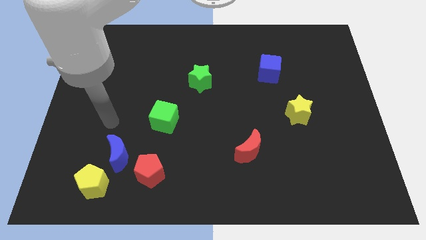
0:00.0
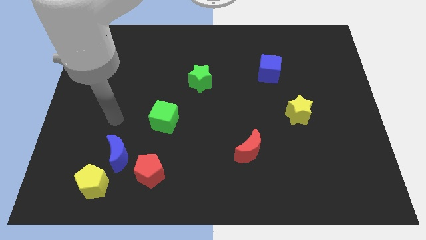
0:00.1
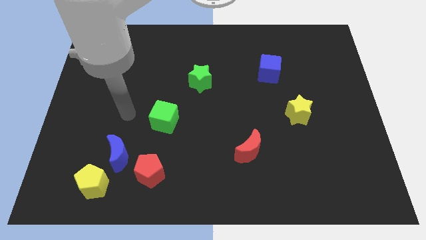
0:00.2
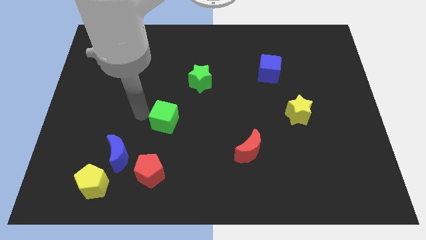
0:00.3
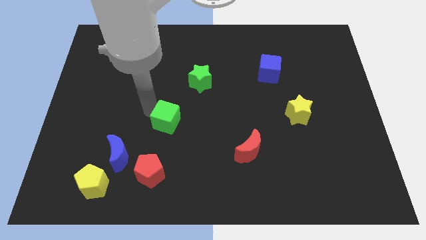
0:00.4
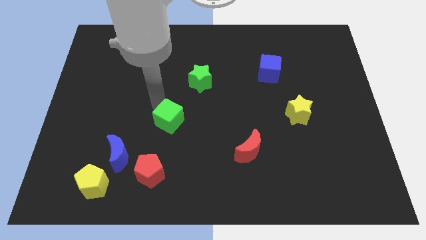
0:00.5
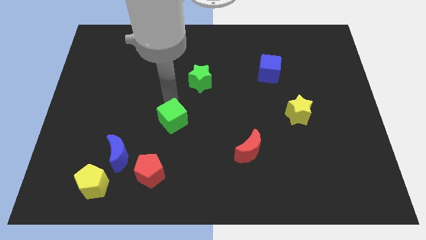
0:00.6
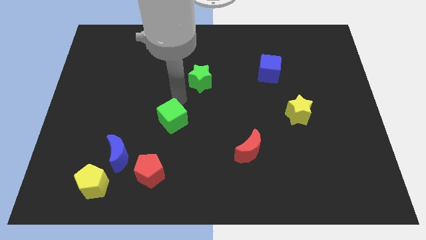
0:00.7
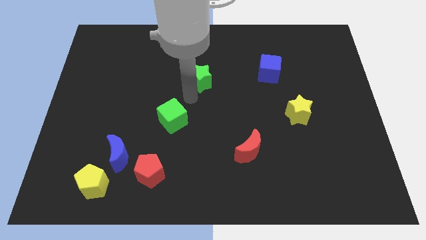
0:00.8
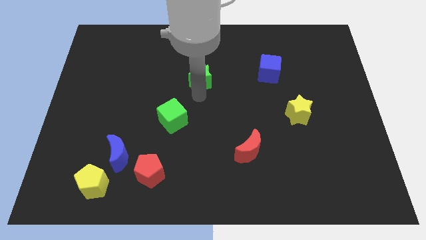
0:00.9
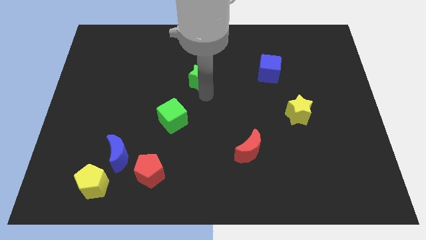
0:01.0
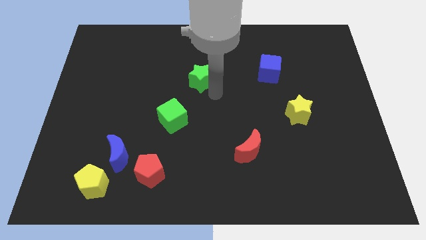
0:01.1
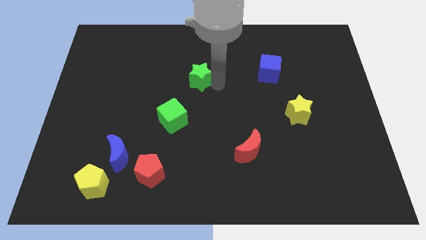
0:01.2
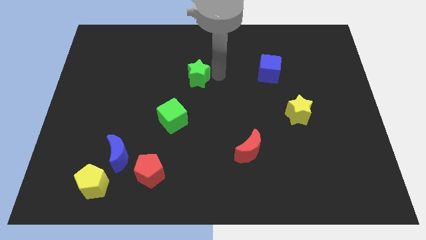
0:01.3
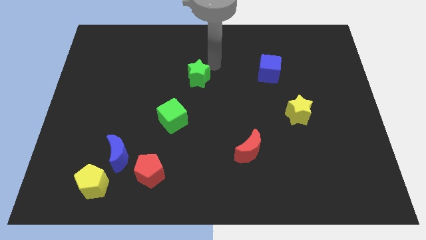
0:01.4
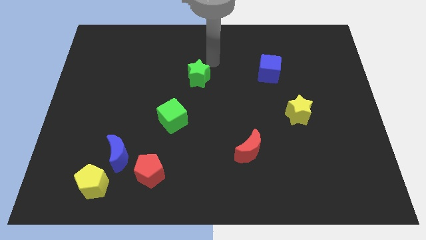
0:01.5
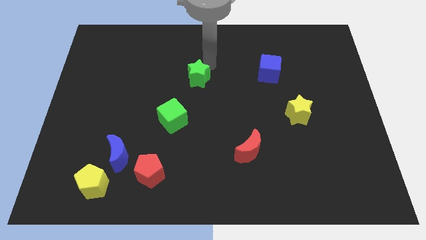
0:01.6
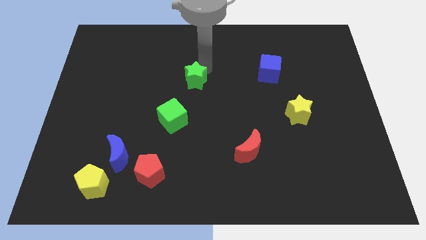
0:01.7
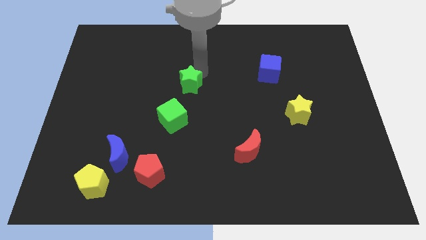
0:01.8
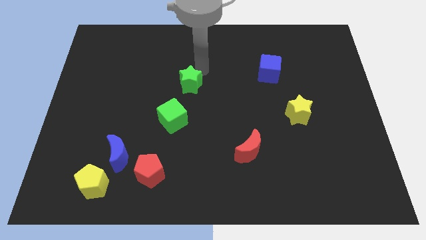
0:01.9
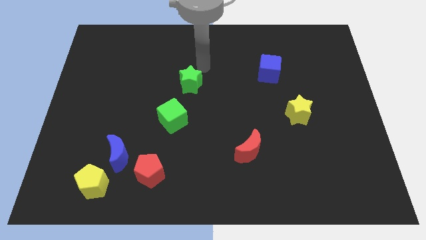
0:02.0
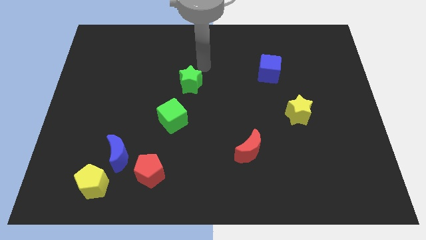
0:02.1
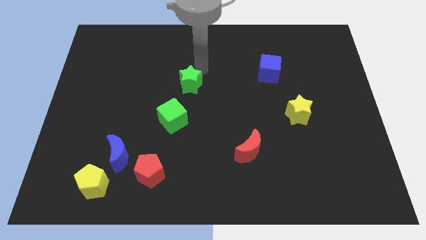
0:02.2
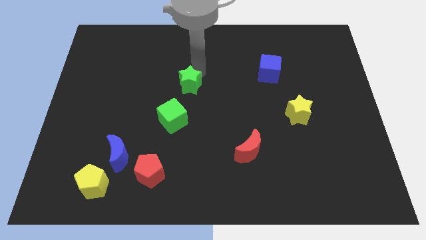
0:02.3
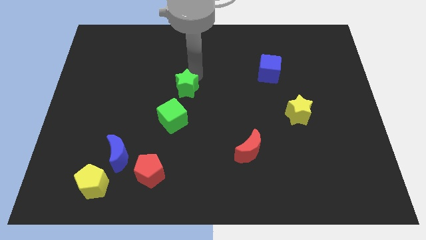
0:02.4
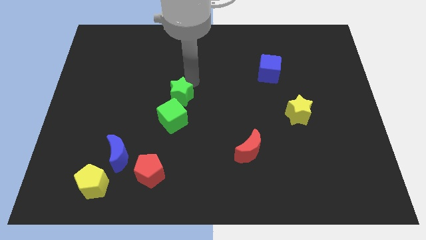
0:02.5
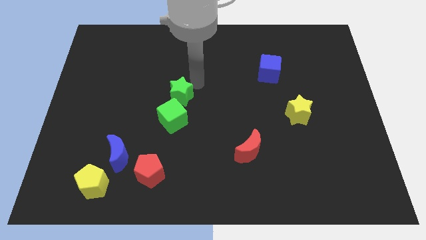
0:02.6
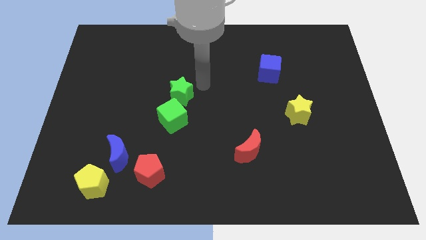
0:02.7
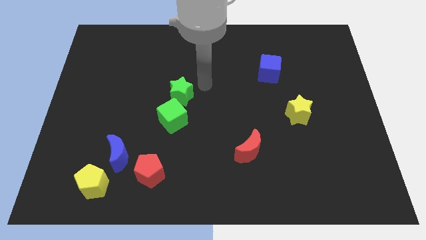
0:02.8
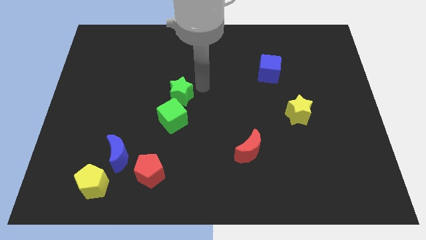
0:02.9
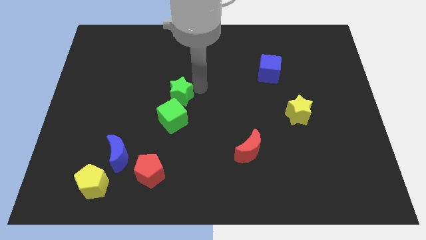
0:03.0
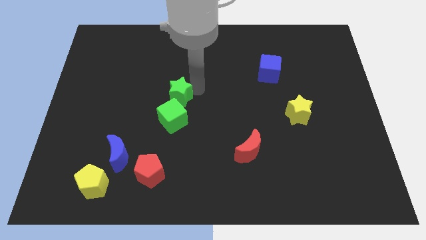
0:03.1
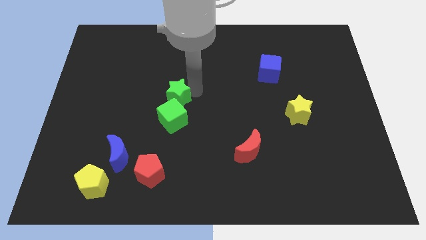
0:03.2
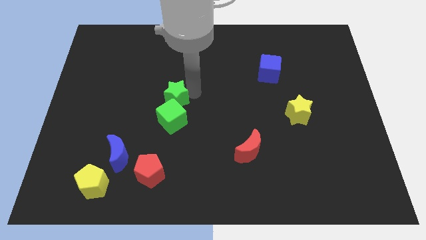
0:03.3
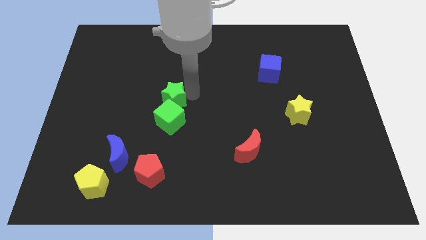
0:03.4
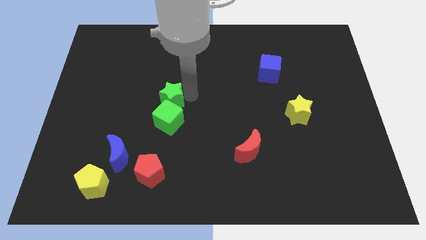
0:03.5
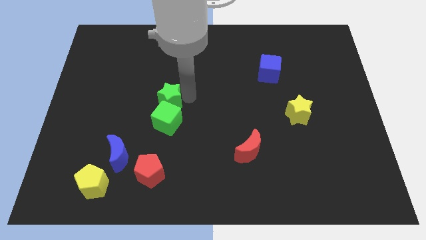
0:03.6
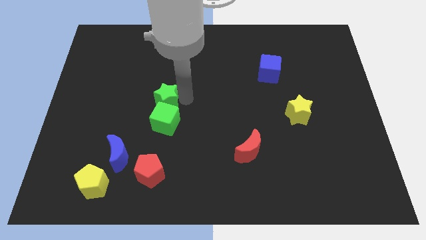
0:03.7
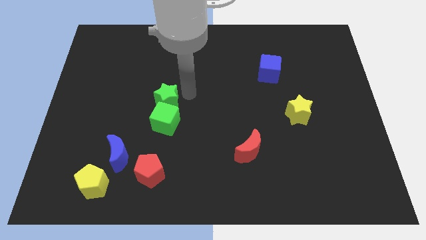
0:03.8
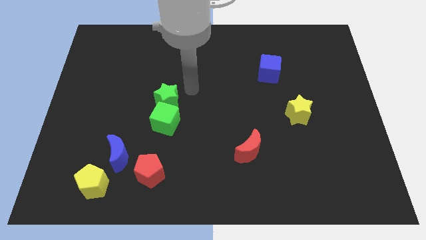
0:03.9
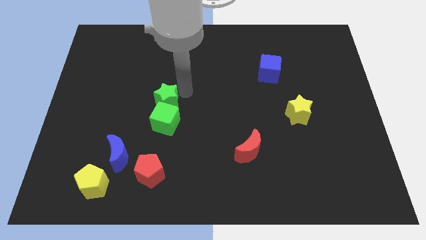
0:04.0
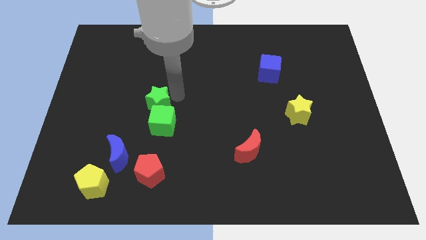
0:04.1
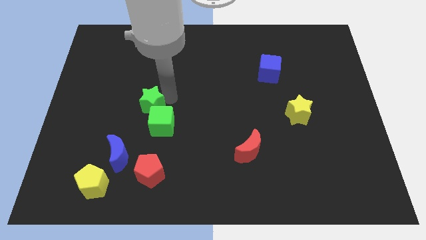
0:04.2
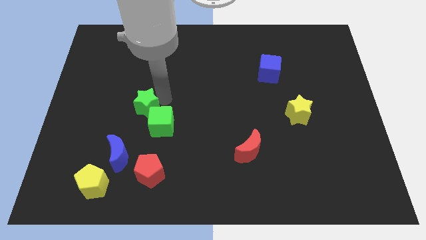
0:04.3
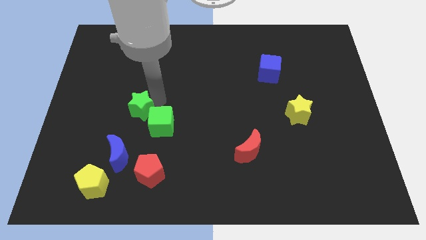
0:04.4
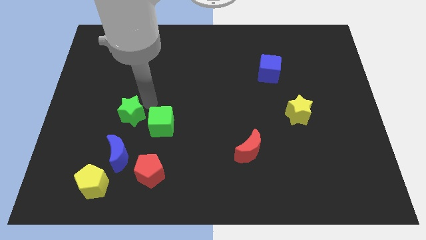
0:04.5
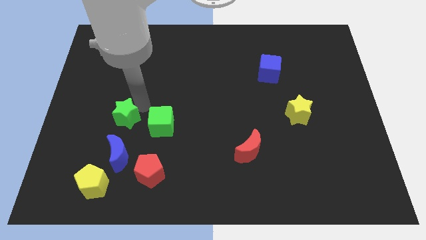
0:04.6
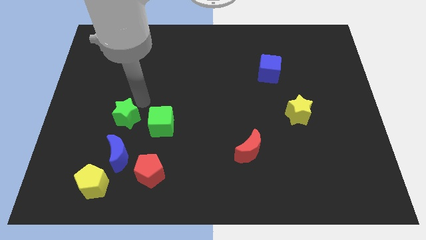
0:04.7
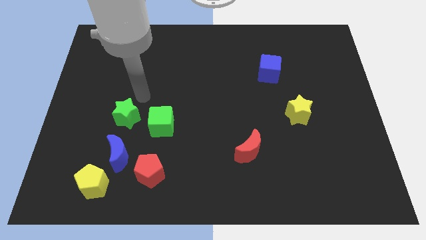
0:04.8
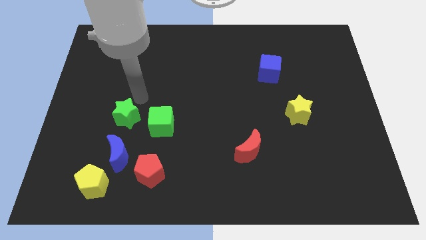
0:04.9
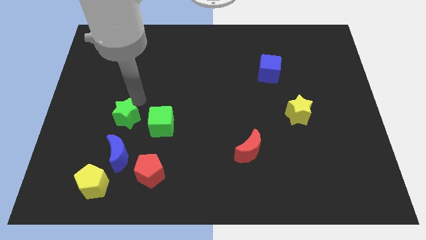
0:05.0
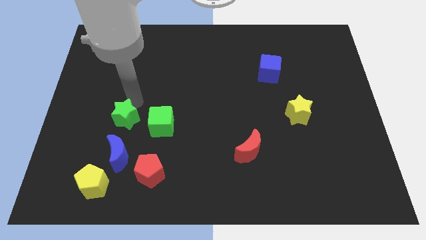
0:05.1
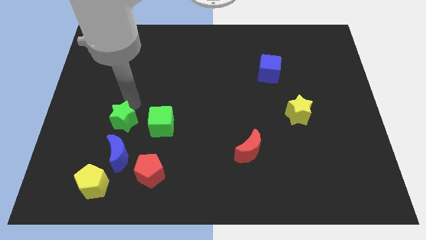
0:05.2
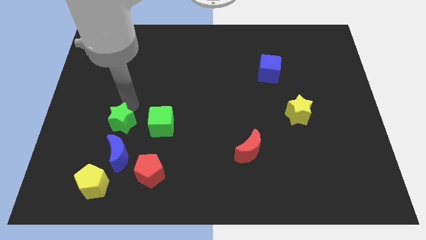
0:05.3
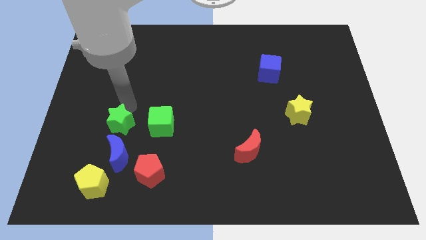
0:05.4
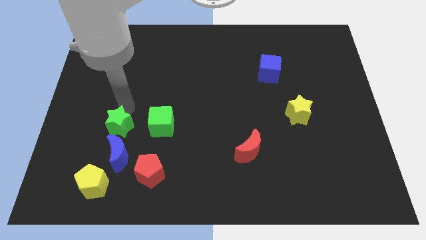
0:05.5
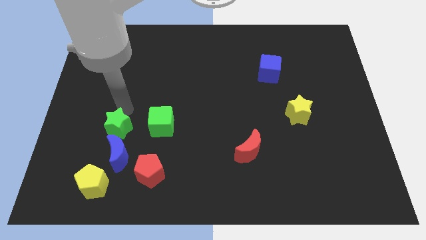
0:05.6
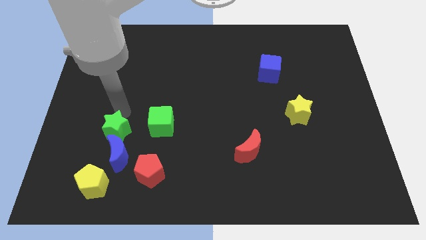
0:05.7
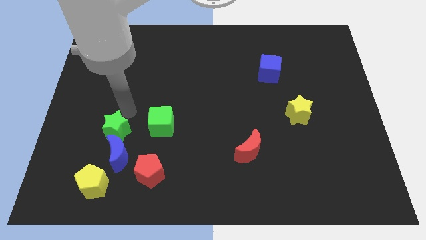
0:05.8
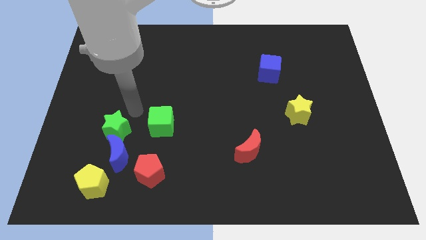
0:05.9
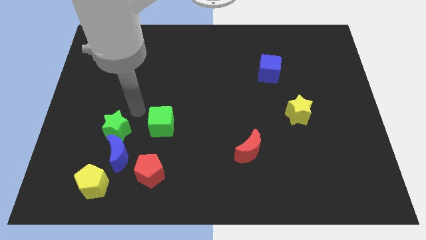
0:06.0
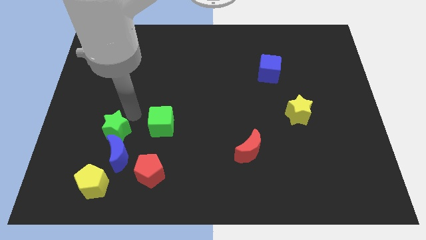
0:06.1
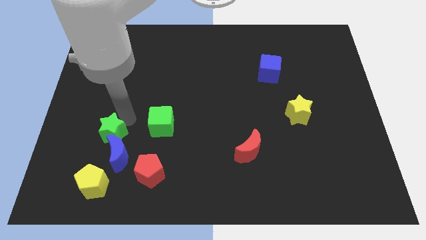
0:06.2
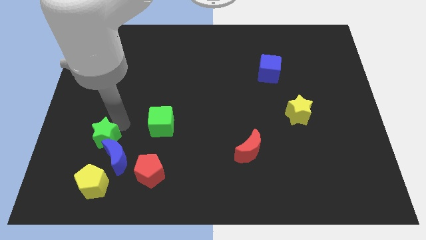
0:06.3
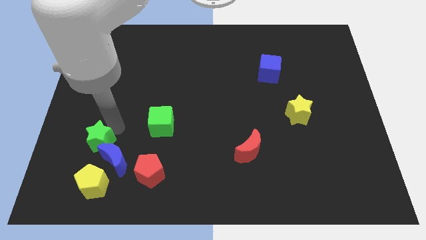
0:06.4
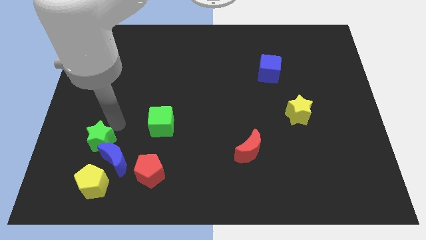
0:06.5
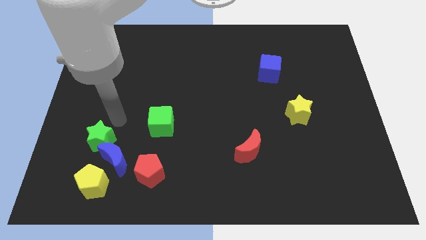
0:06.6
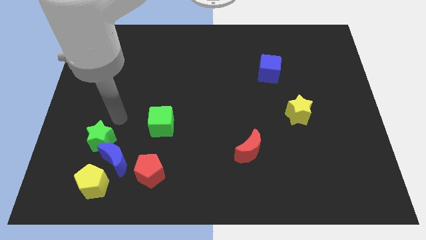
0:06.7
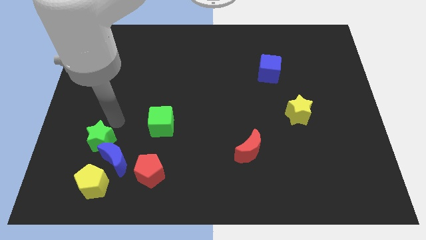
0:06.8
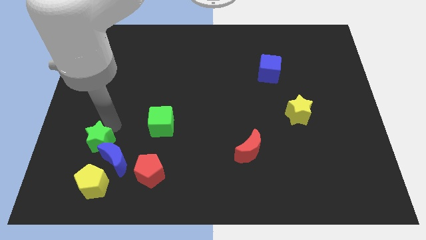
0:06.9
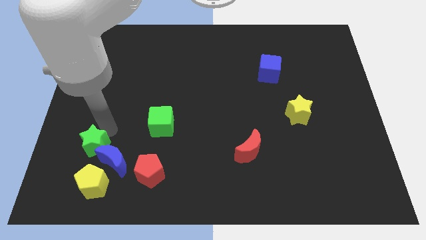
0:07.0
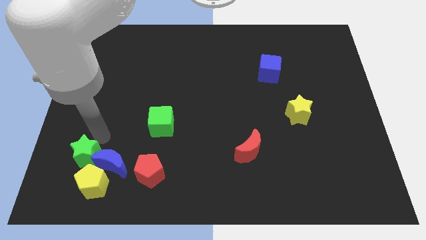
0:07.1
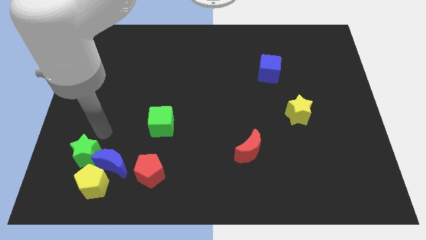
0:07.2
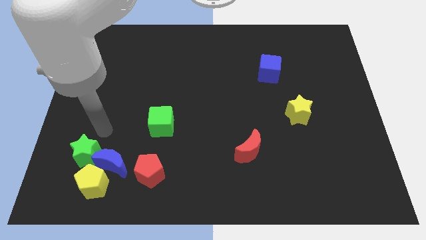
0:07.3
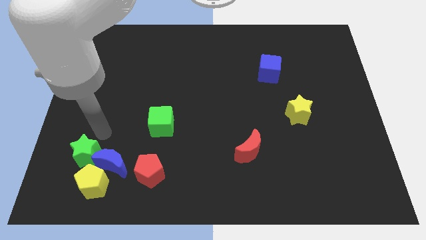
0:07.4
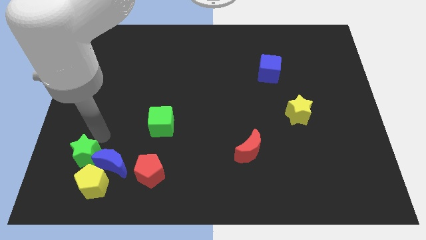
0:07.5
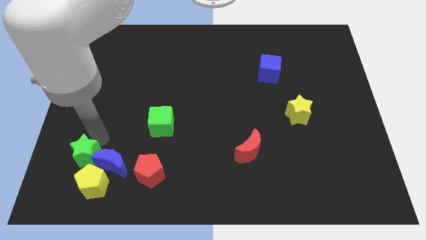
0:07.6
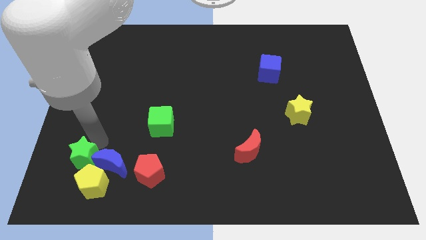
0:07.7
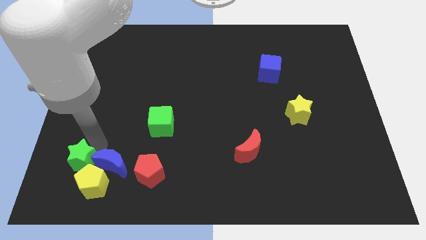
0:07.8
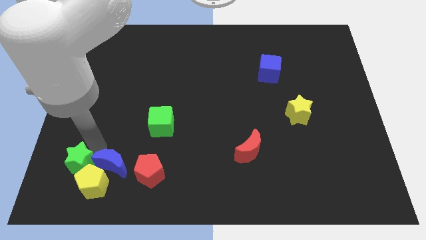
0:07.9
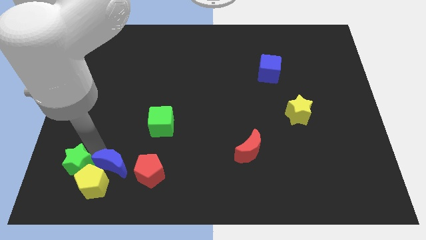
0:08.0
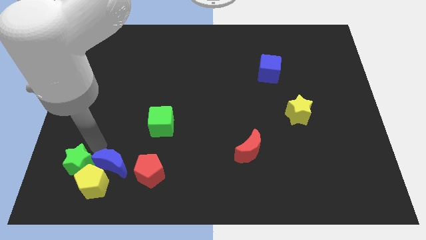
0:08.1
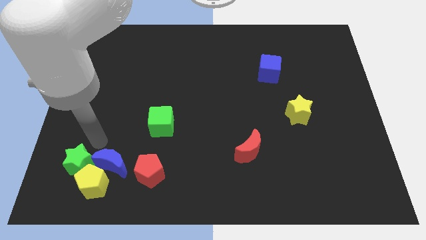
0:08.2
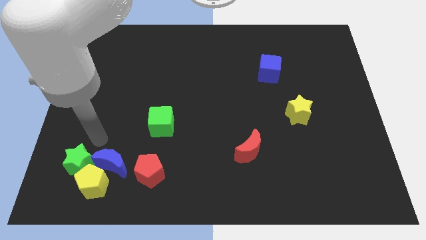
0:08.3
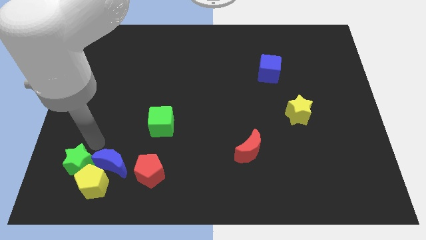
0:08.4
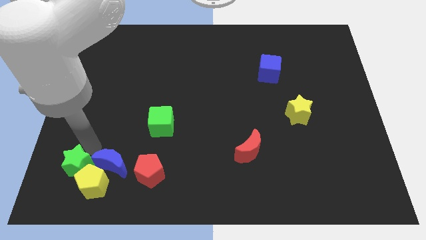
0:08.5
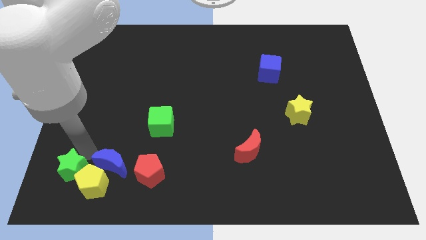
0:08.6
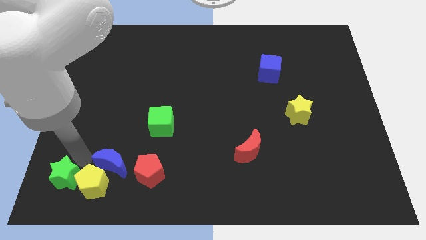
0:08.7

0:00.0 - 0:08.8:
put the green star to the bottom left corner
